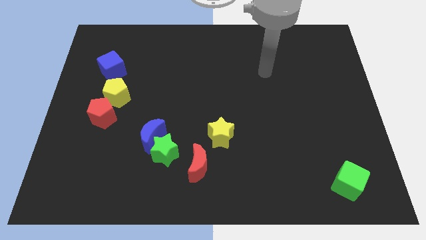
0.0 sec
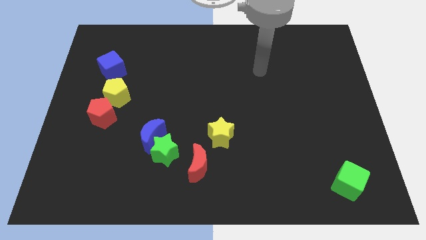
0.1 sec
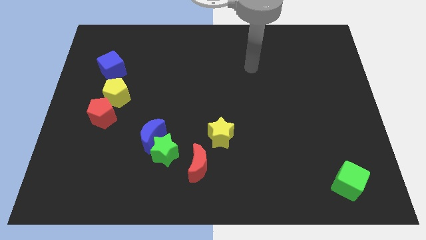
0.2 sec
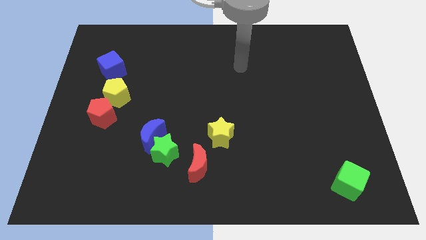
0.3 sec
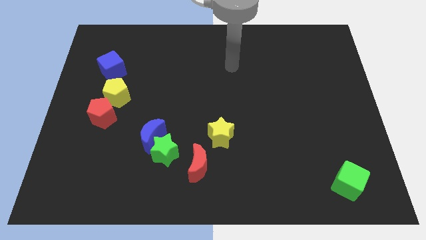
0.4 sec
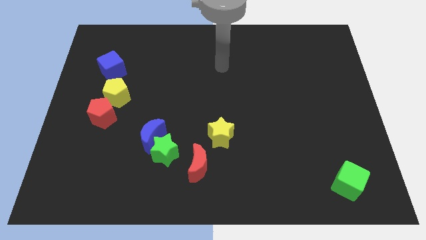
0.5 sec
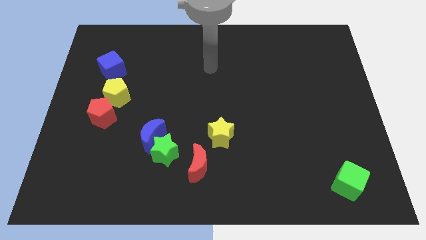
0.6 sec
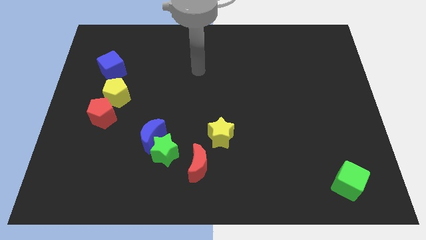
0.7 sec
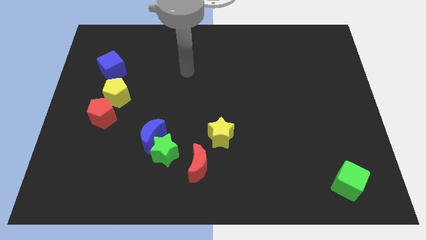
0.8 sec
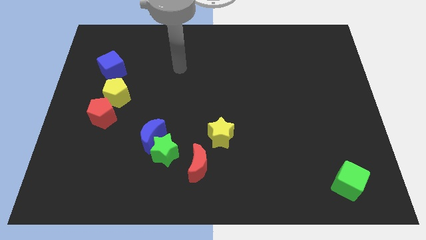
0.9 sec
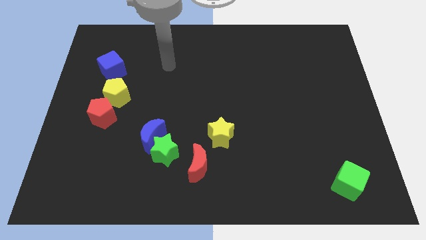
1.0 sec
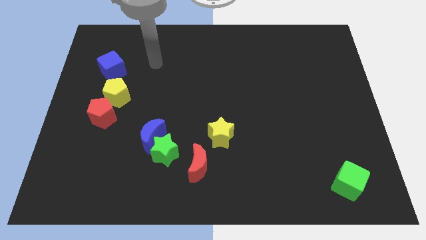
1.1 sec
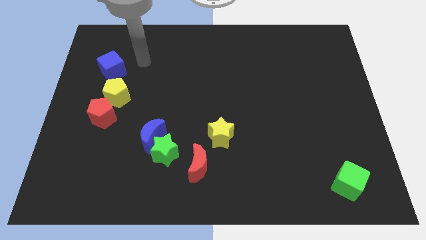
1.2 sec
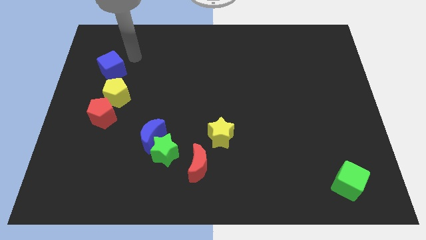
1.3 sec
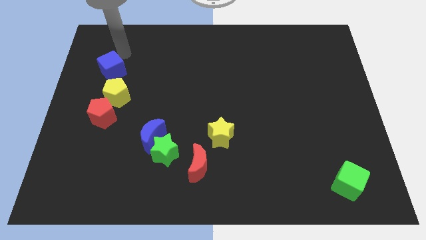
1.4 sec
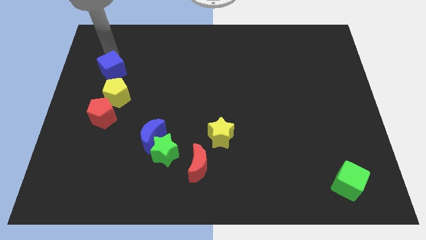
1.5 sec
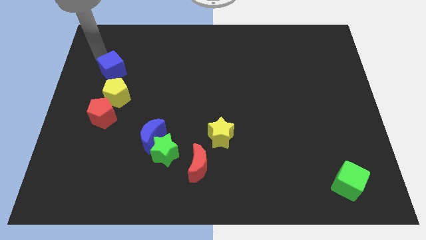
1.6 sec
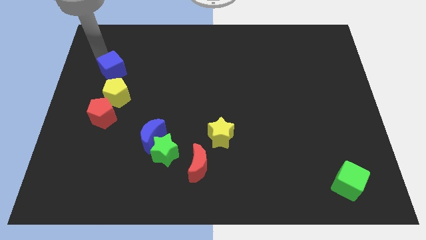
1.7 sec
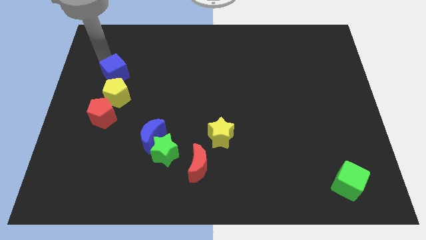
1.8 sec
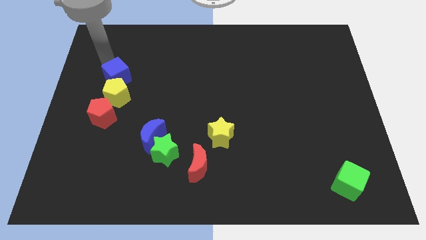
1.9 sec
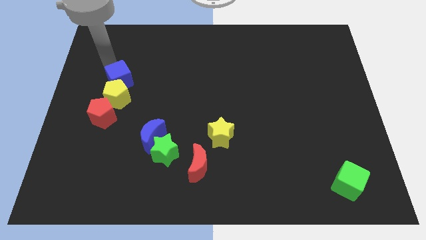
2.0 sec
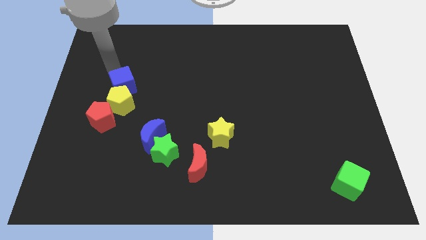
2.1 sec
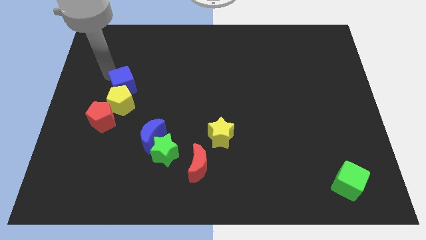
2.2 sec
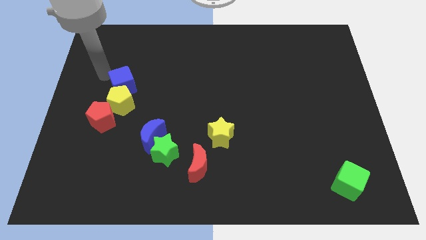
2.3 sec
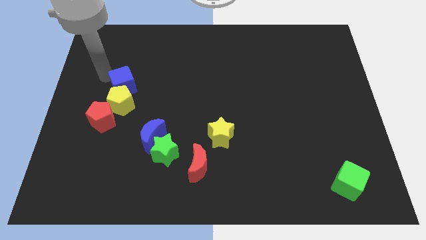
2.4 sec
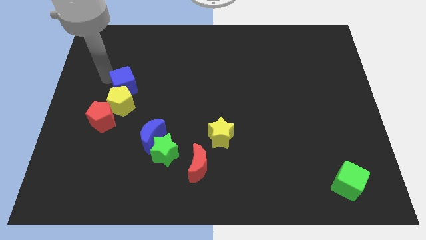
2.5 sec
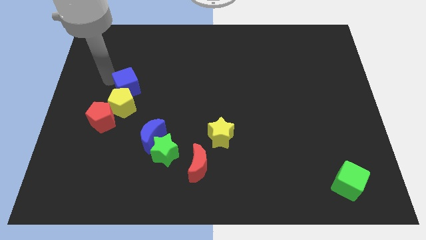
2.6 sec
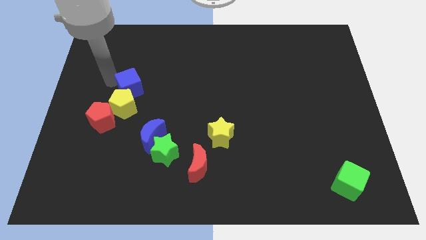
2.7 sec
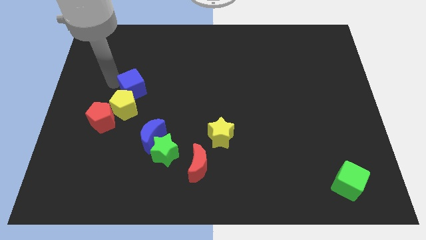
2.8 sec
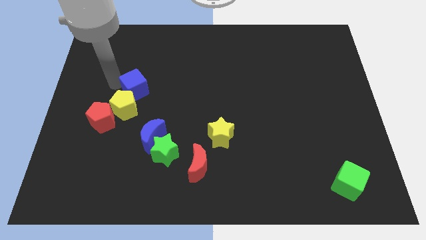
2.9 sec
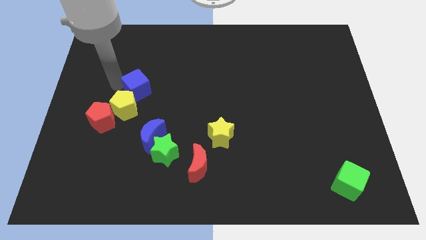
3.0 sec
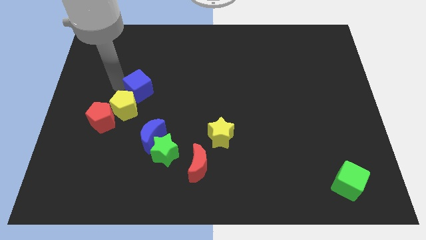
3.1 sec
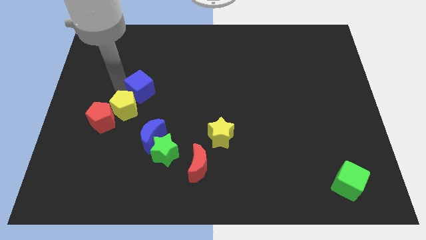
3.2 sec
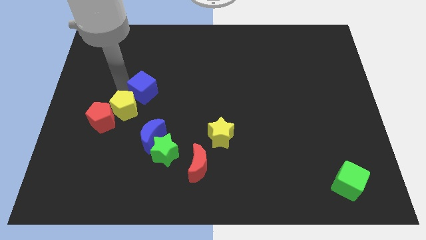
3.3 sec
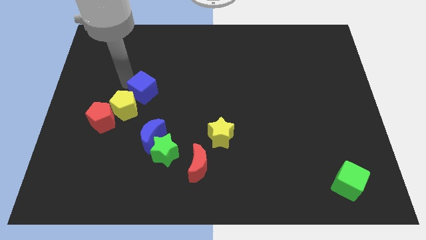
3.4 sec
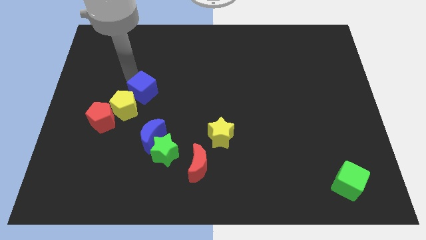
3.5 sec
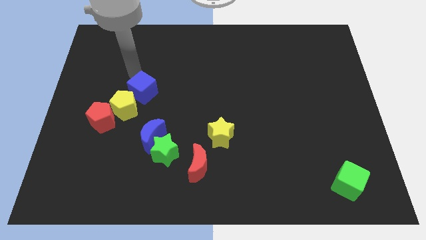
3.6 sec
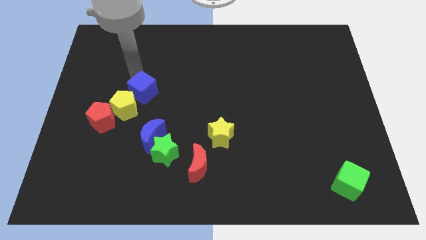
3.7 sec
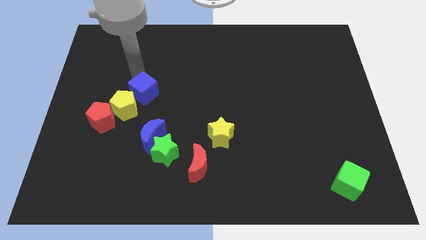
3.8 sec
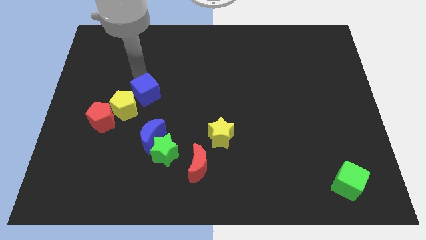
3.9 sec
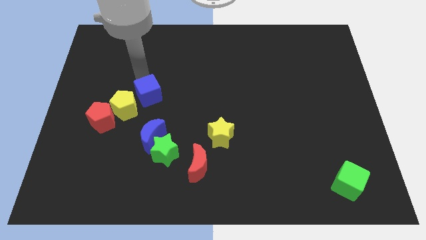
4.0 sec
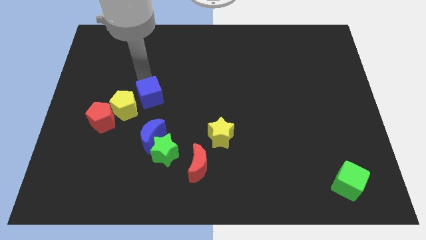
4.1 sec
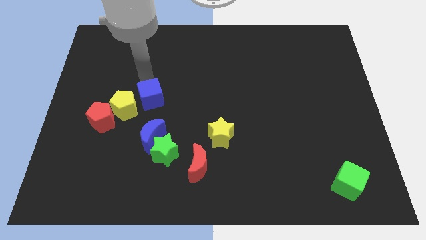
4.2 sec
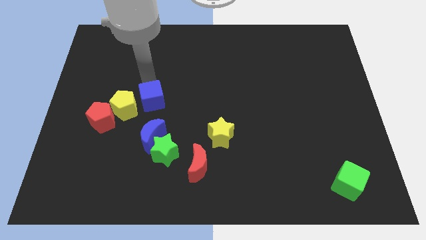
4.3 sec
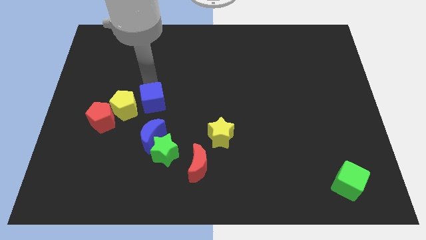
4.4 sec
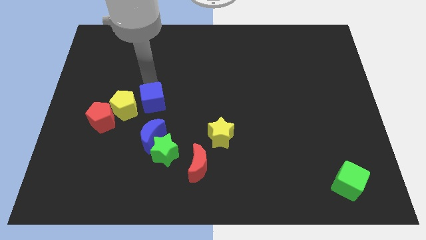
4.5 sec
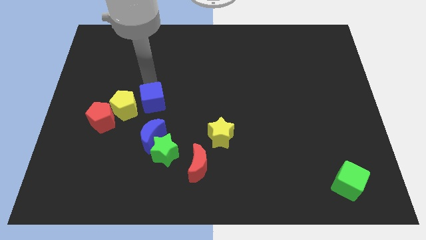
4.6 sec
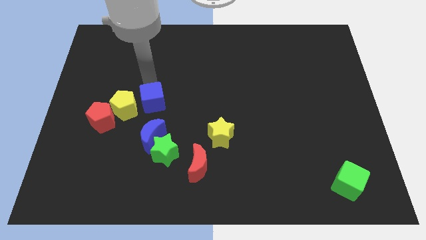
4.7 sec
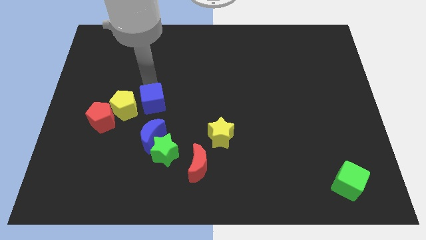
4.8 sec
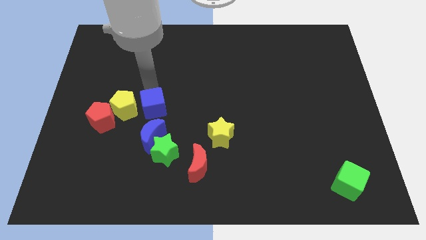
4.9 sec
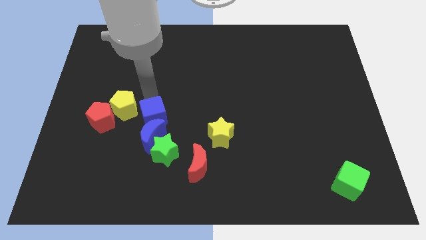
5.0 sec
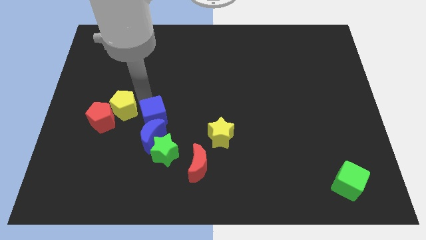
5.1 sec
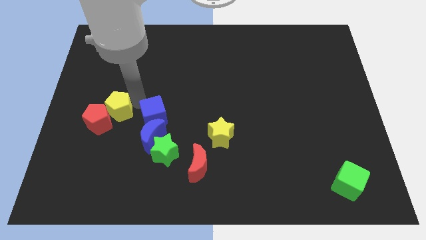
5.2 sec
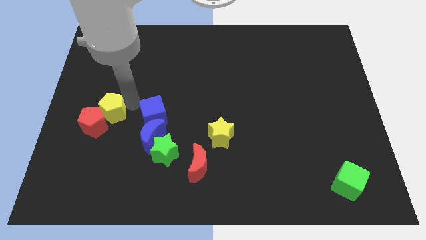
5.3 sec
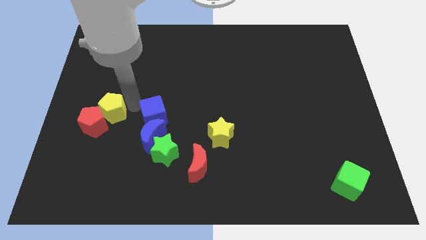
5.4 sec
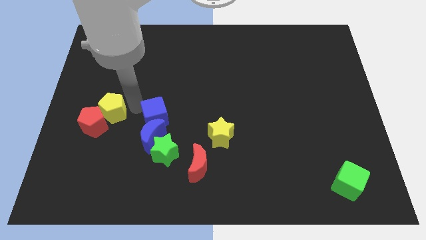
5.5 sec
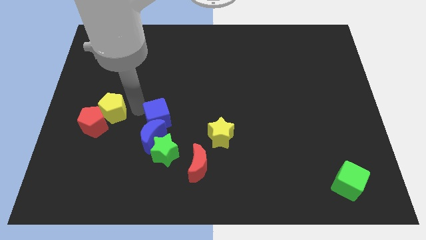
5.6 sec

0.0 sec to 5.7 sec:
slide the blue cube downwards and to the right

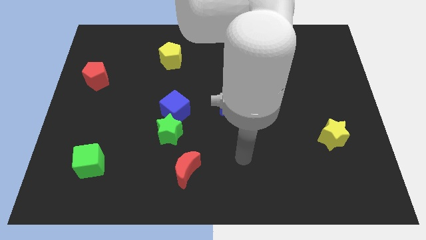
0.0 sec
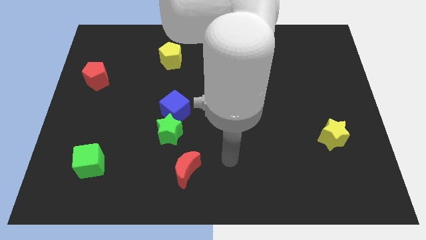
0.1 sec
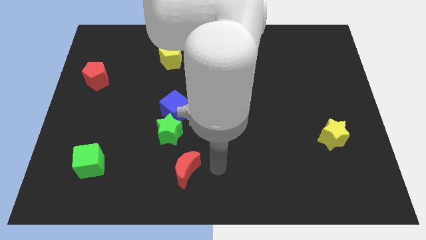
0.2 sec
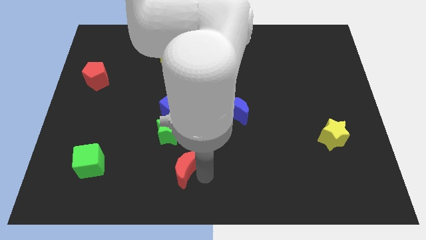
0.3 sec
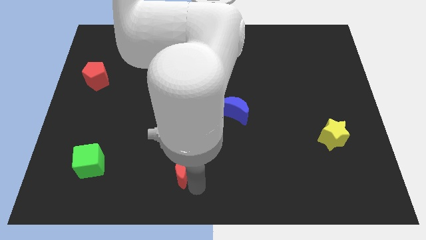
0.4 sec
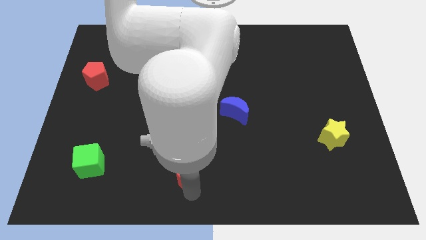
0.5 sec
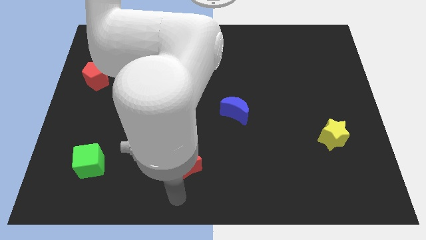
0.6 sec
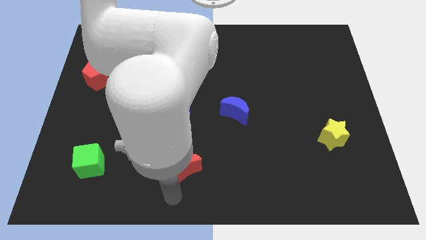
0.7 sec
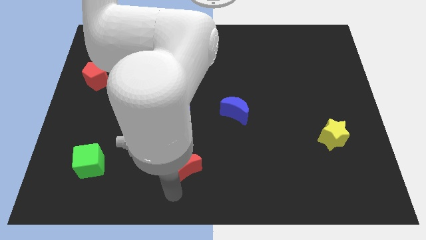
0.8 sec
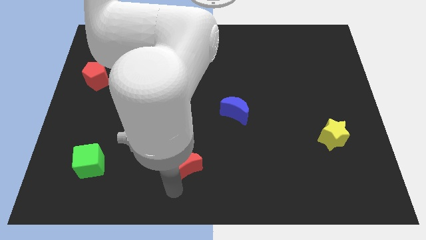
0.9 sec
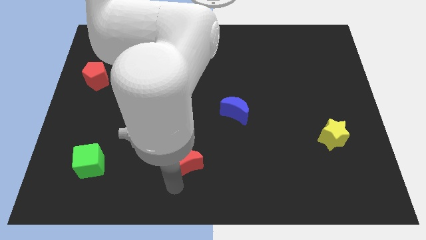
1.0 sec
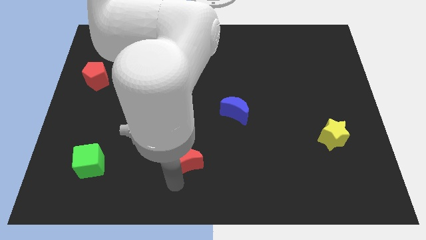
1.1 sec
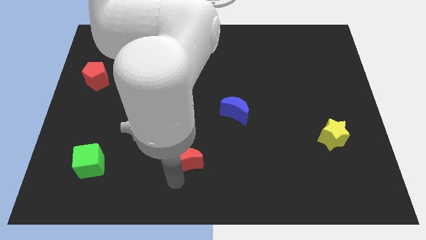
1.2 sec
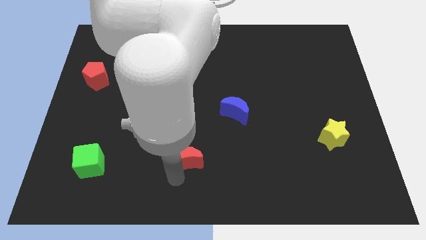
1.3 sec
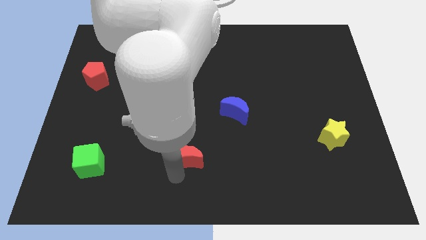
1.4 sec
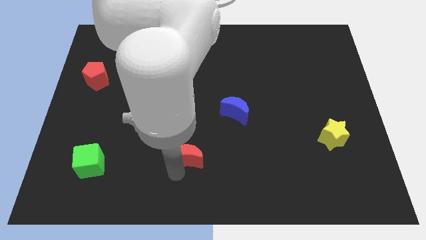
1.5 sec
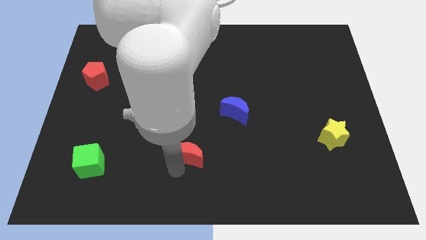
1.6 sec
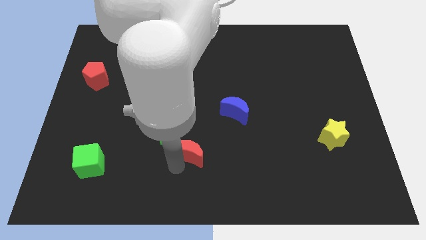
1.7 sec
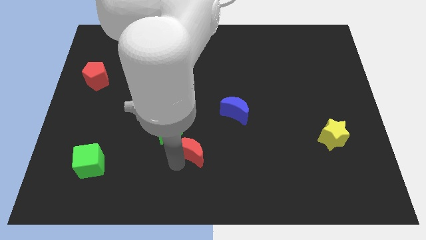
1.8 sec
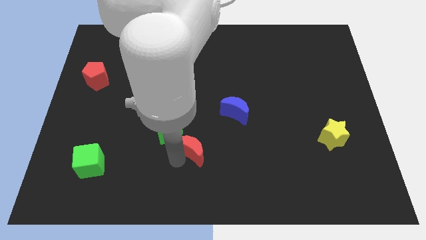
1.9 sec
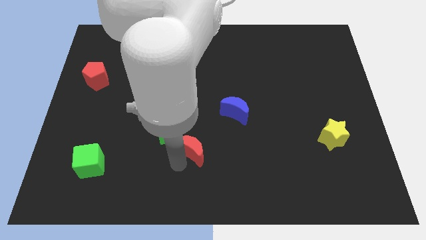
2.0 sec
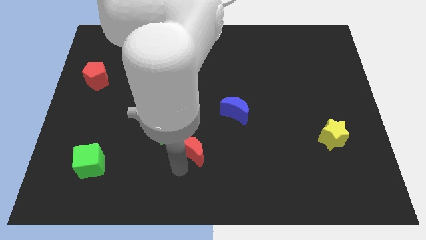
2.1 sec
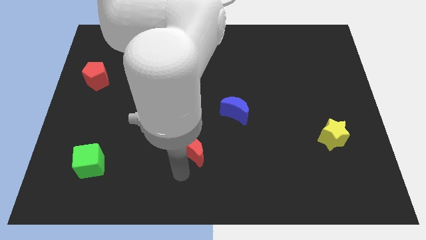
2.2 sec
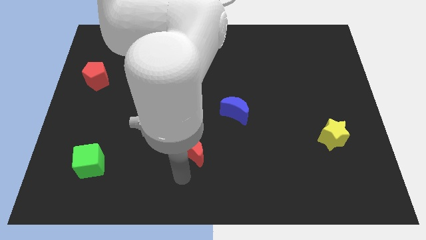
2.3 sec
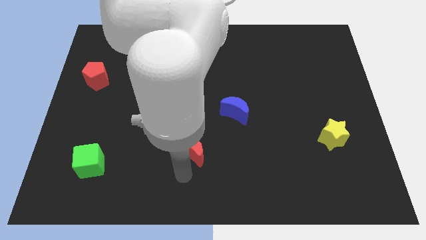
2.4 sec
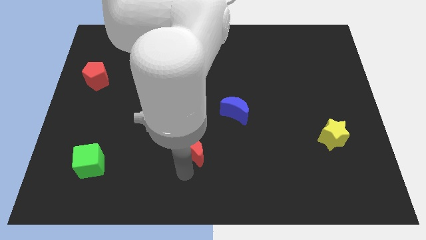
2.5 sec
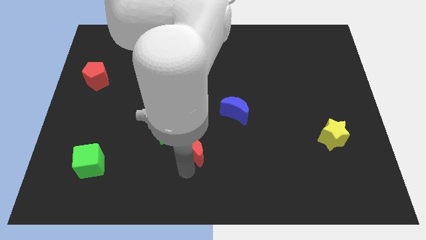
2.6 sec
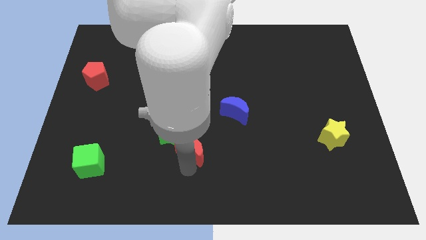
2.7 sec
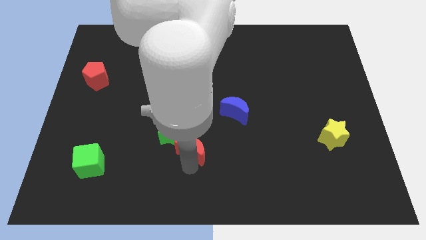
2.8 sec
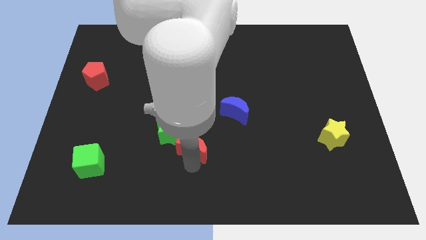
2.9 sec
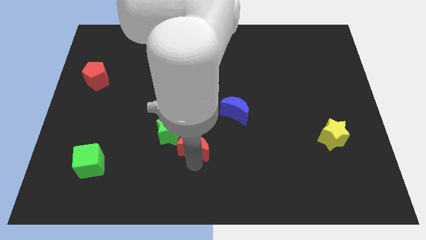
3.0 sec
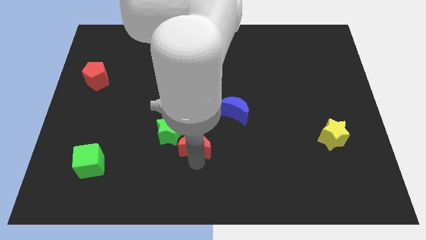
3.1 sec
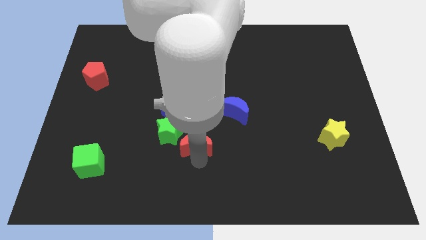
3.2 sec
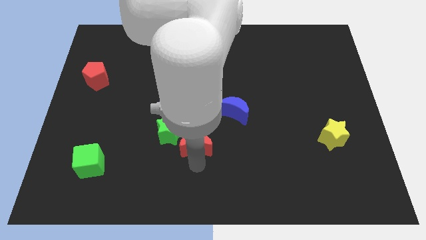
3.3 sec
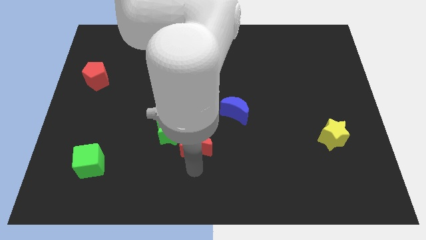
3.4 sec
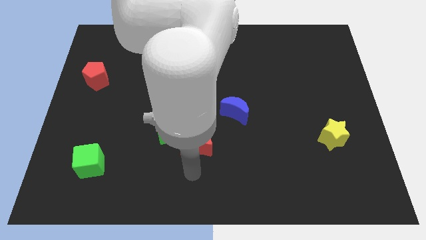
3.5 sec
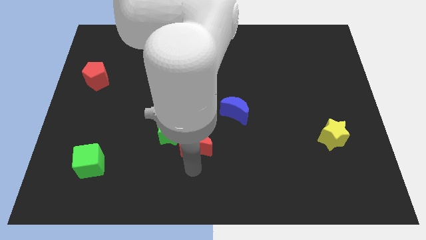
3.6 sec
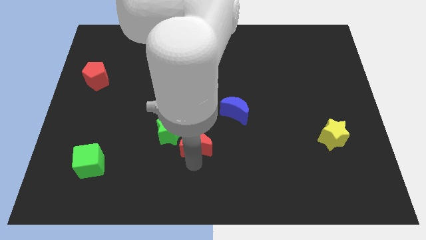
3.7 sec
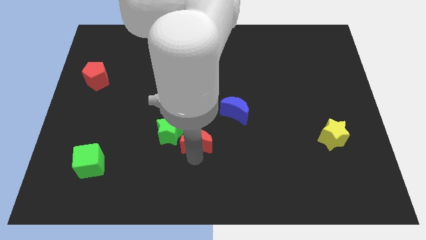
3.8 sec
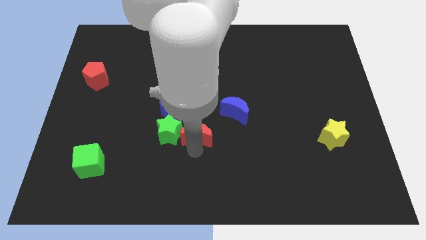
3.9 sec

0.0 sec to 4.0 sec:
slide the red moon up a bit
